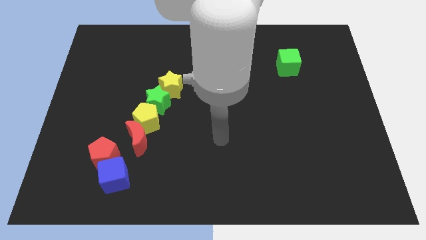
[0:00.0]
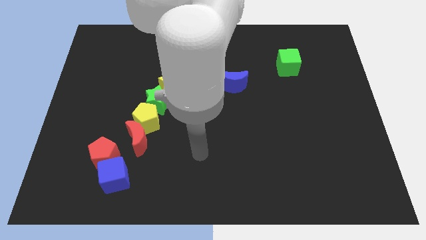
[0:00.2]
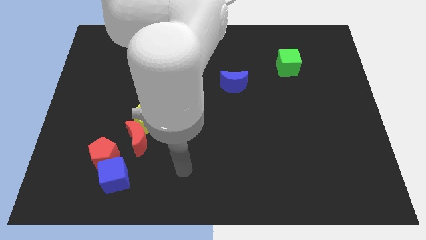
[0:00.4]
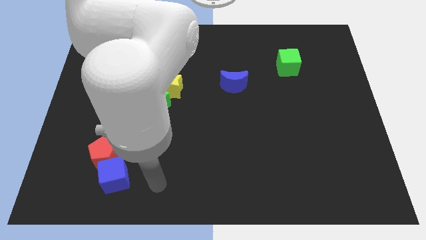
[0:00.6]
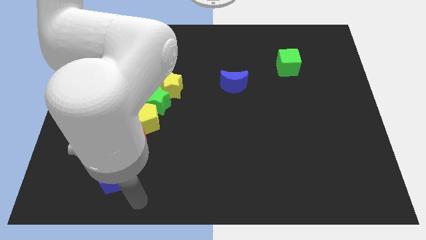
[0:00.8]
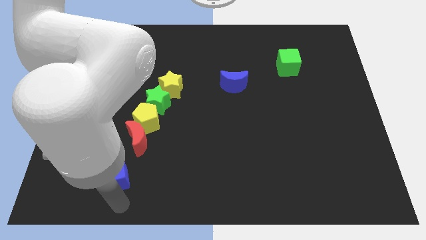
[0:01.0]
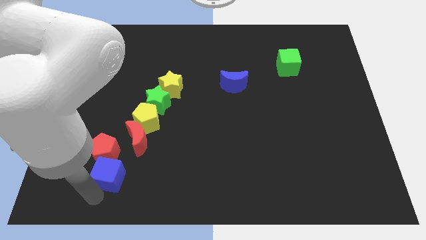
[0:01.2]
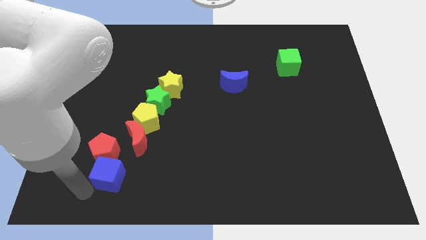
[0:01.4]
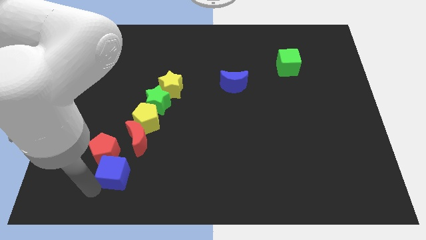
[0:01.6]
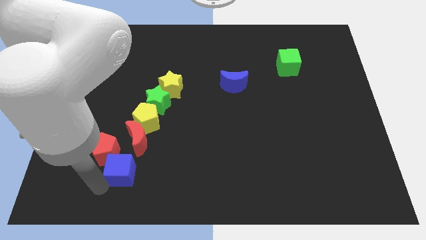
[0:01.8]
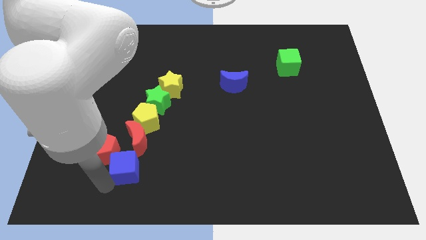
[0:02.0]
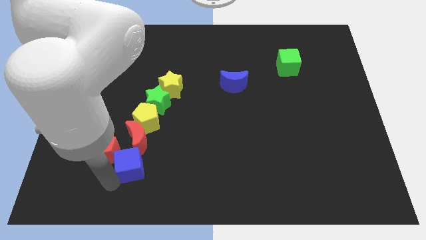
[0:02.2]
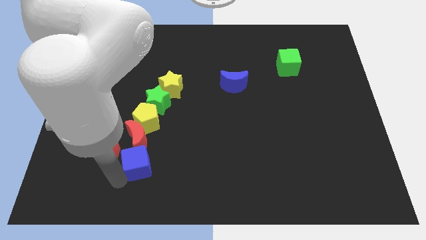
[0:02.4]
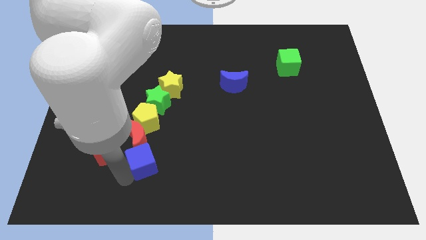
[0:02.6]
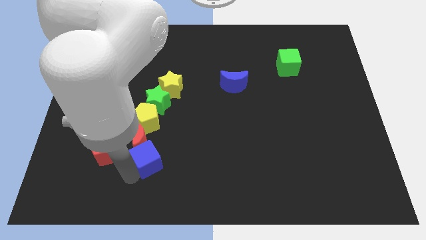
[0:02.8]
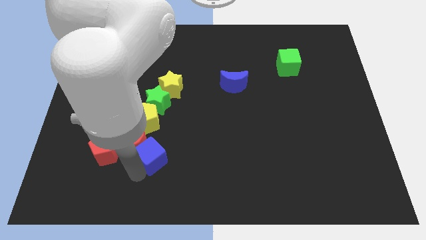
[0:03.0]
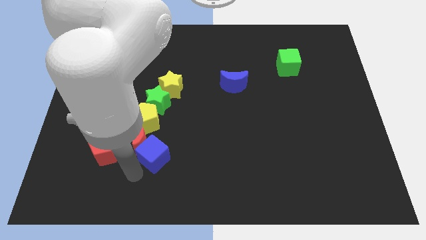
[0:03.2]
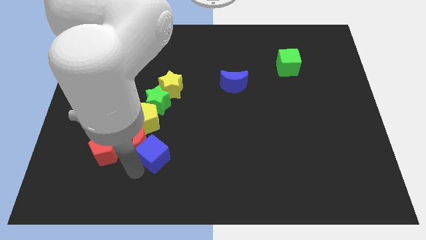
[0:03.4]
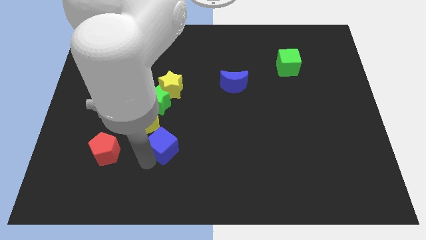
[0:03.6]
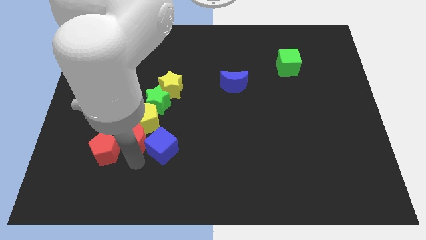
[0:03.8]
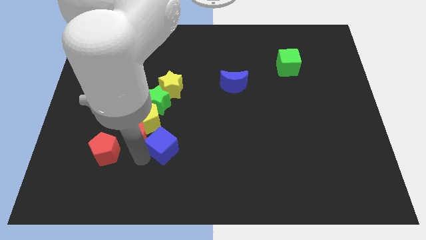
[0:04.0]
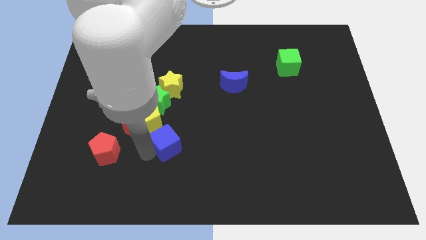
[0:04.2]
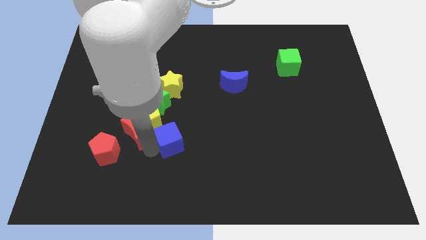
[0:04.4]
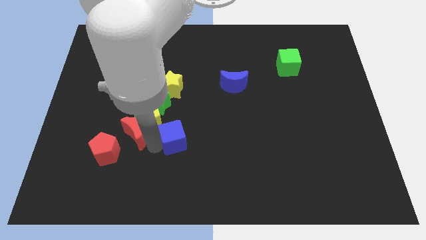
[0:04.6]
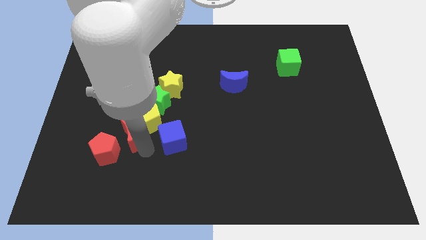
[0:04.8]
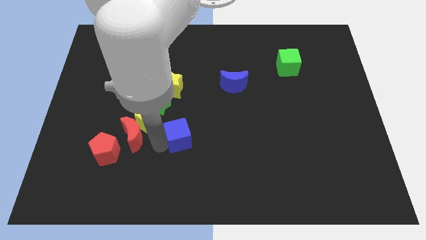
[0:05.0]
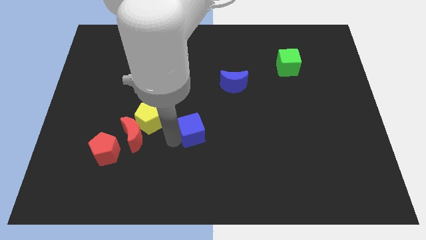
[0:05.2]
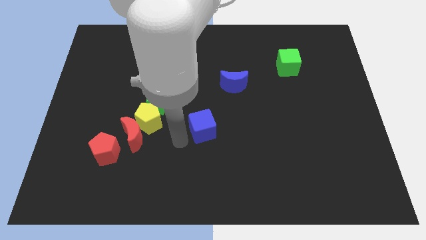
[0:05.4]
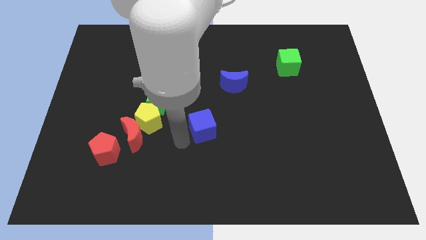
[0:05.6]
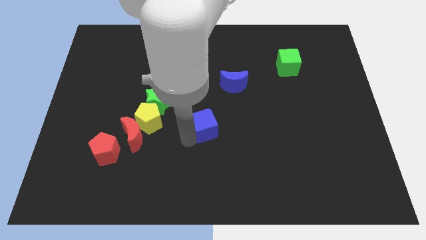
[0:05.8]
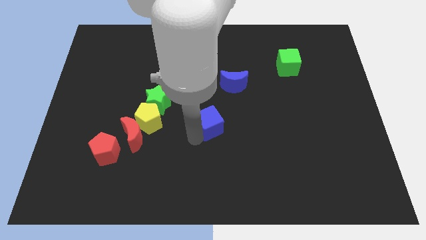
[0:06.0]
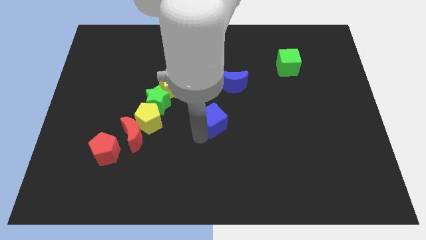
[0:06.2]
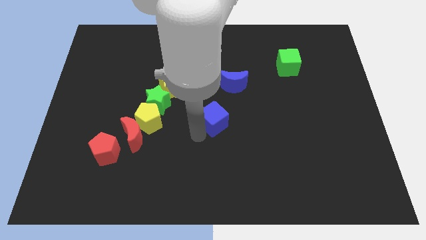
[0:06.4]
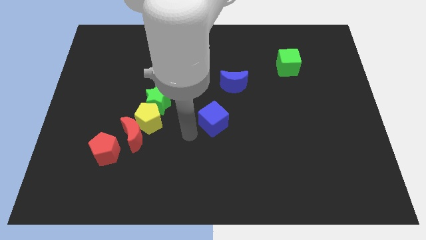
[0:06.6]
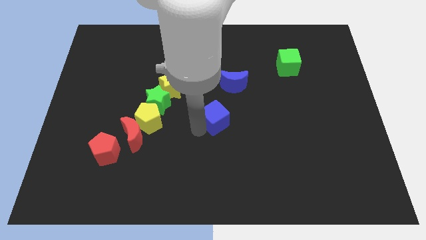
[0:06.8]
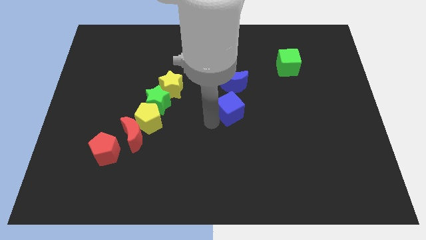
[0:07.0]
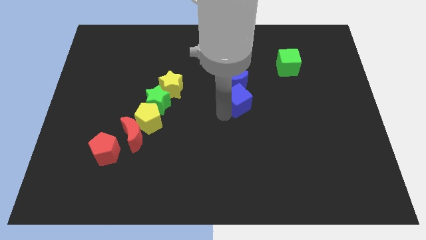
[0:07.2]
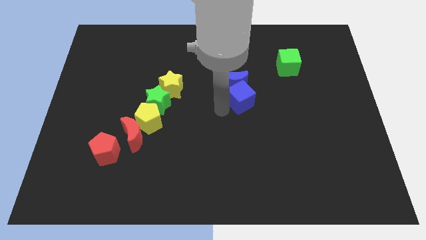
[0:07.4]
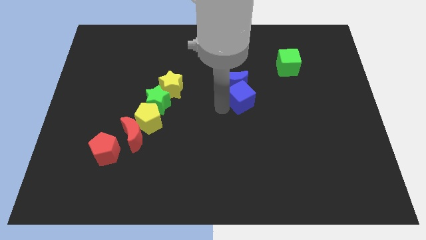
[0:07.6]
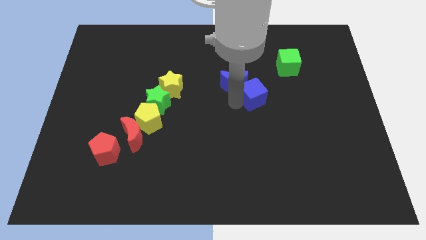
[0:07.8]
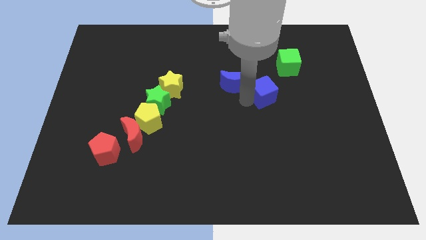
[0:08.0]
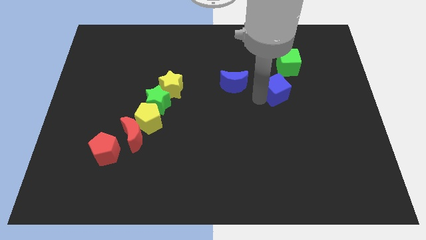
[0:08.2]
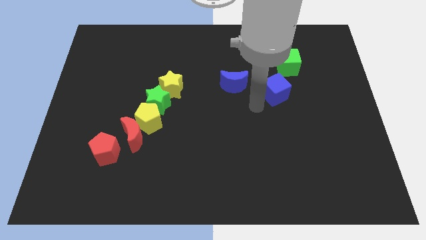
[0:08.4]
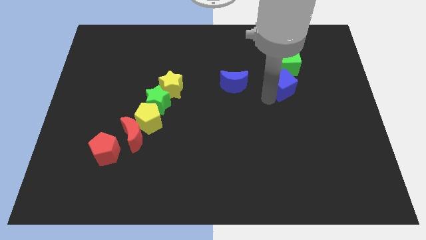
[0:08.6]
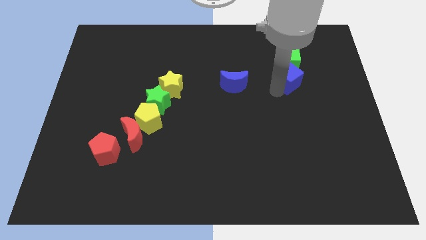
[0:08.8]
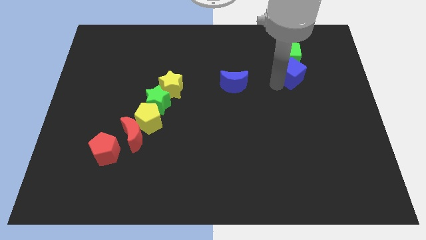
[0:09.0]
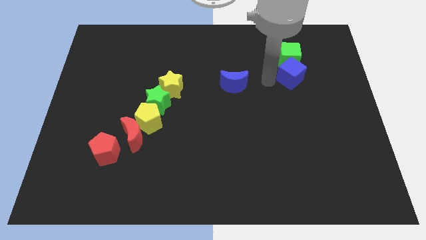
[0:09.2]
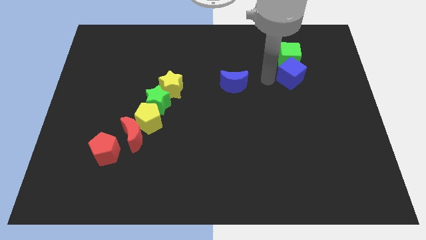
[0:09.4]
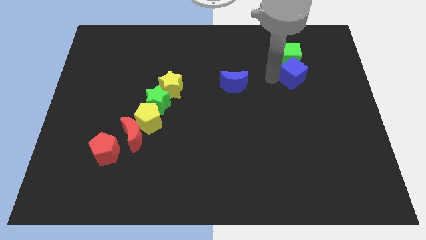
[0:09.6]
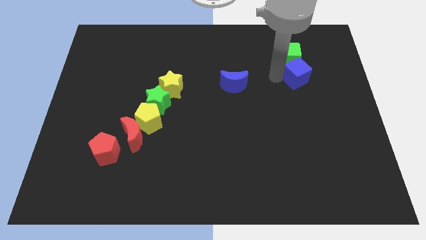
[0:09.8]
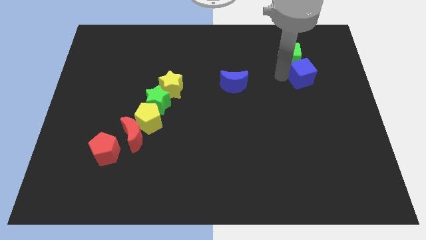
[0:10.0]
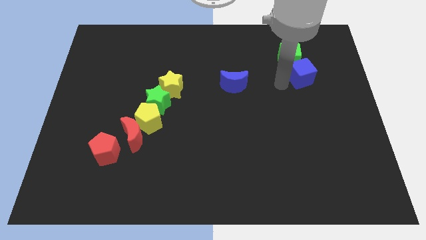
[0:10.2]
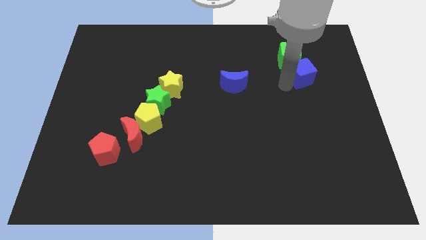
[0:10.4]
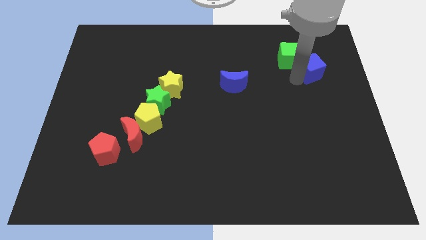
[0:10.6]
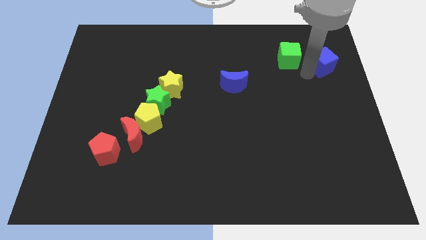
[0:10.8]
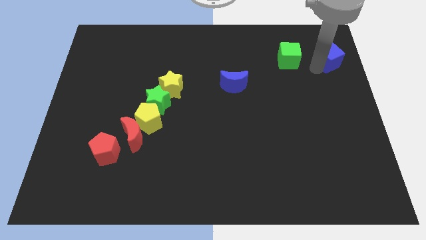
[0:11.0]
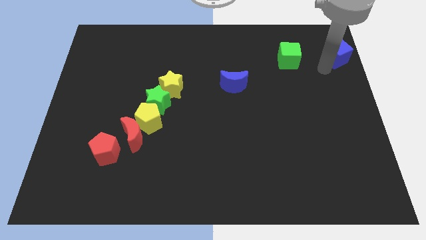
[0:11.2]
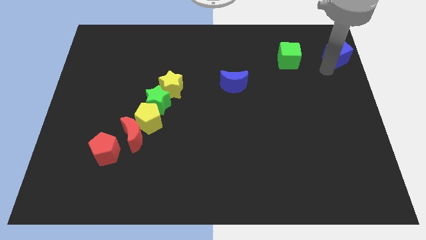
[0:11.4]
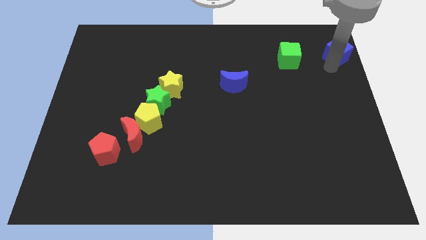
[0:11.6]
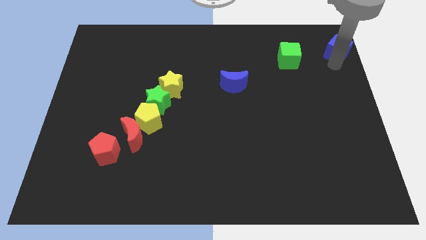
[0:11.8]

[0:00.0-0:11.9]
put the blue cube to the upper right corner

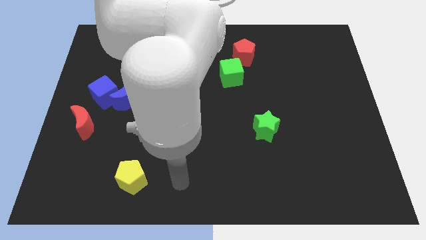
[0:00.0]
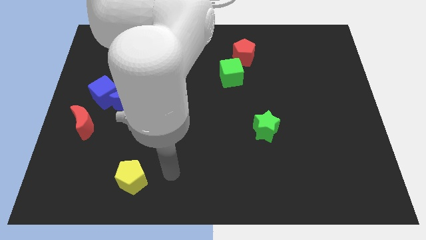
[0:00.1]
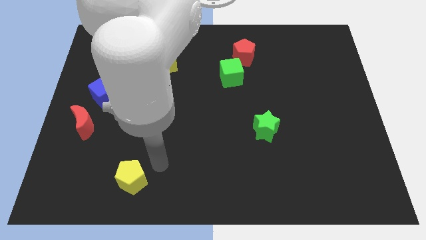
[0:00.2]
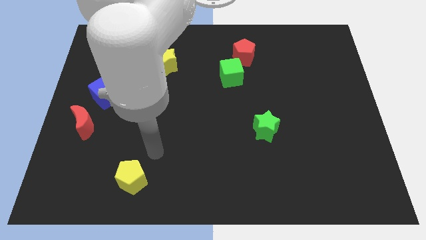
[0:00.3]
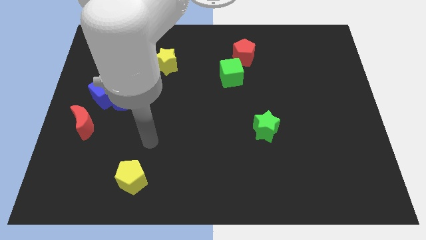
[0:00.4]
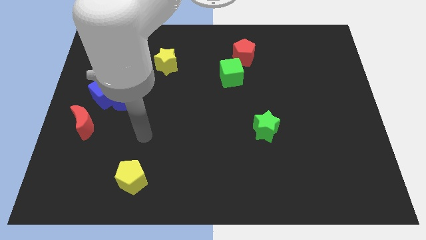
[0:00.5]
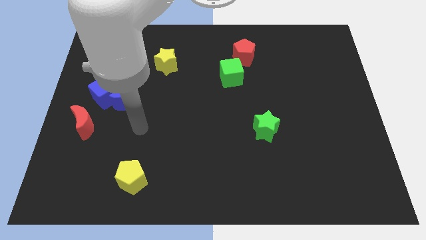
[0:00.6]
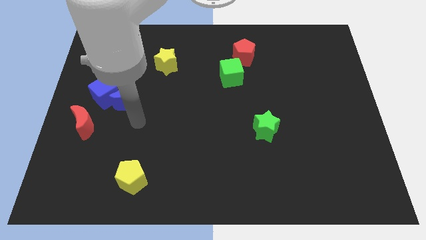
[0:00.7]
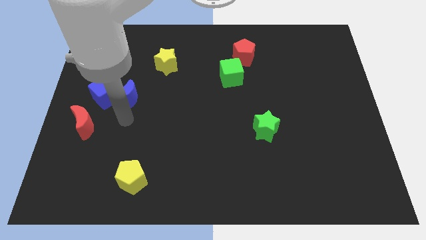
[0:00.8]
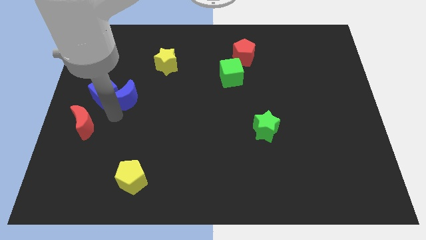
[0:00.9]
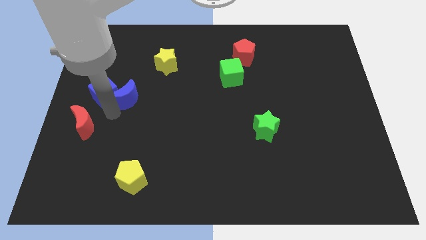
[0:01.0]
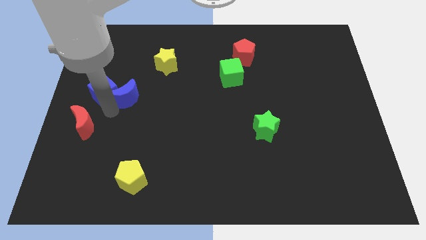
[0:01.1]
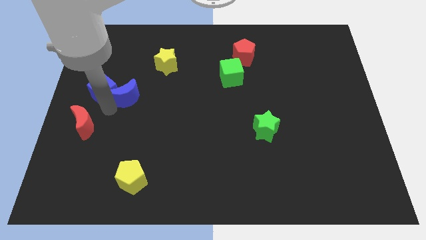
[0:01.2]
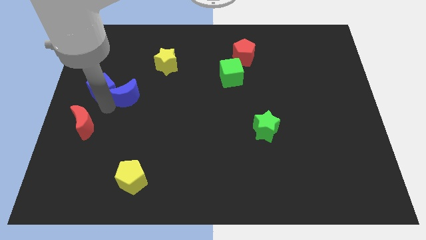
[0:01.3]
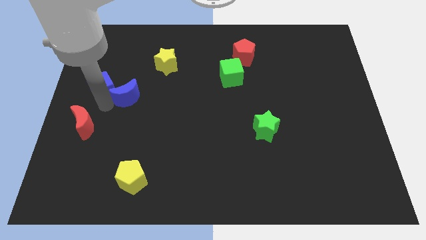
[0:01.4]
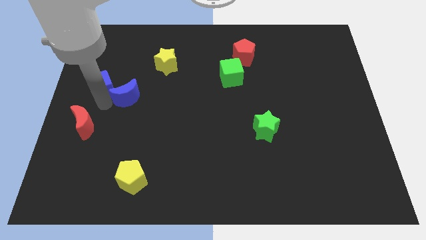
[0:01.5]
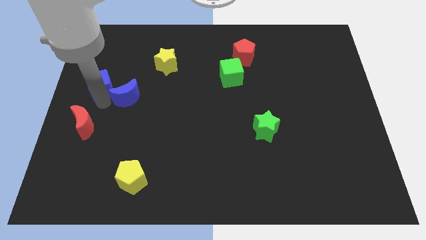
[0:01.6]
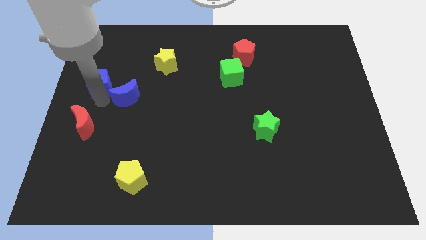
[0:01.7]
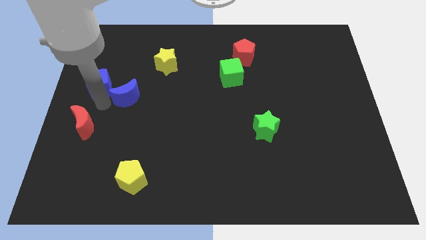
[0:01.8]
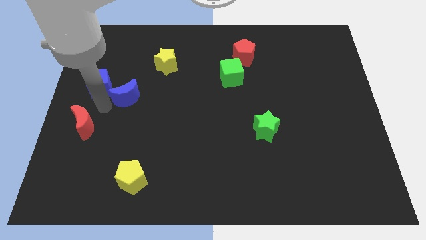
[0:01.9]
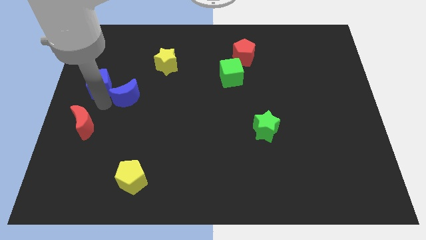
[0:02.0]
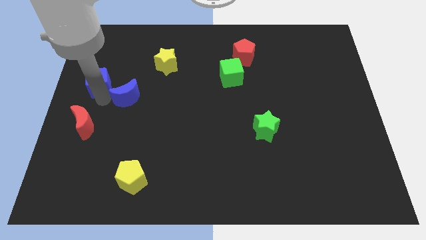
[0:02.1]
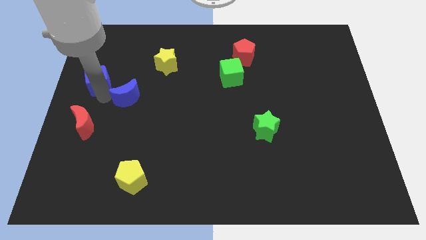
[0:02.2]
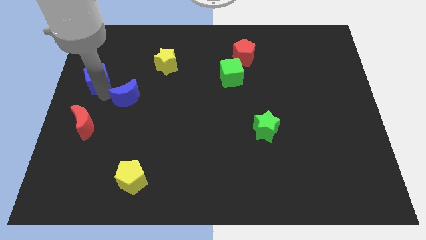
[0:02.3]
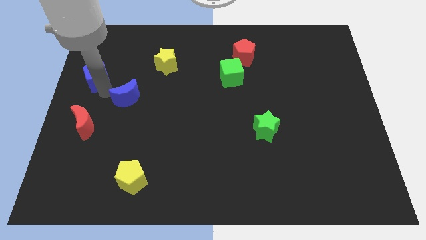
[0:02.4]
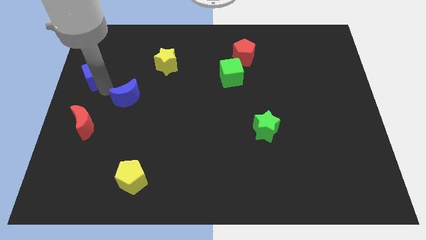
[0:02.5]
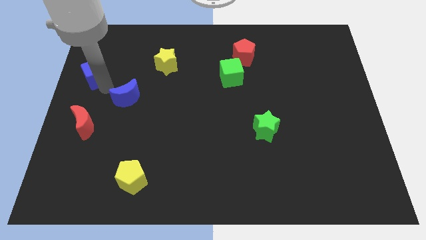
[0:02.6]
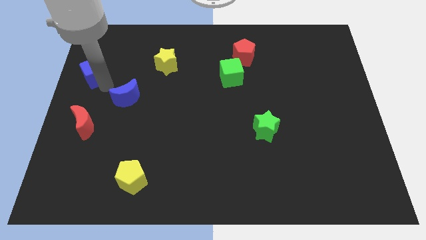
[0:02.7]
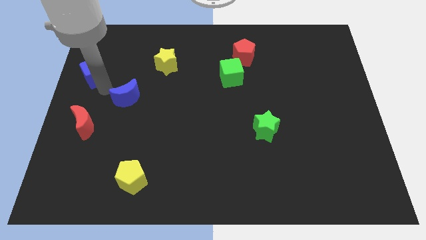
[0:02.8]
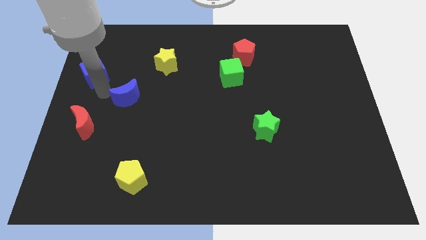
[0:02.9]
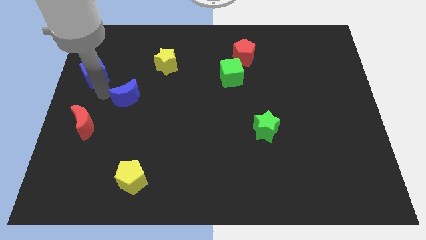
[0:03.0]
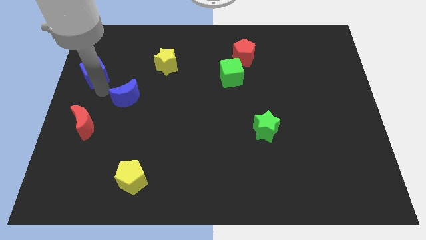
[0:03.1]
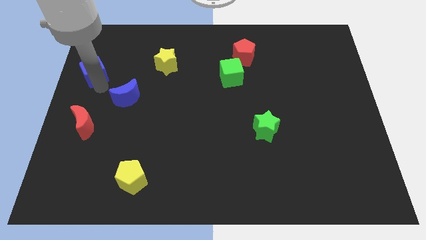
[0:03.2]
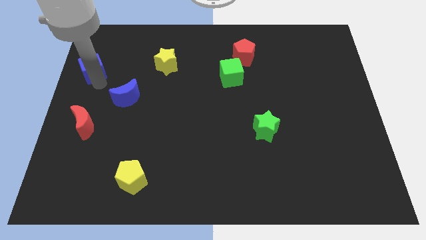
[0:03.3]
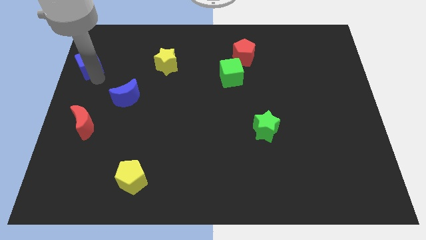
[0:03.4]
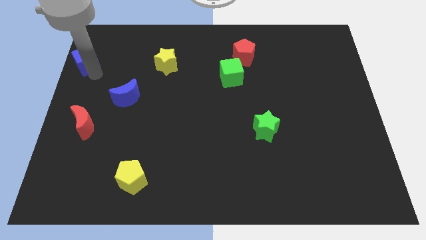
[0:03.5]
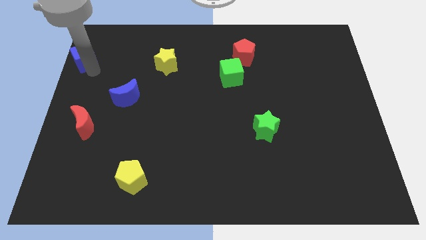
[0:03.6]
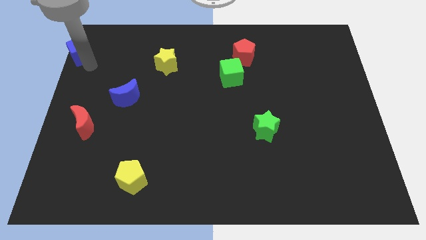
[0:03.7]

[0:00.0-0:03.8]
put the blue cube to the upper left corner
